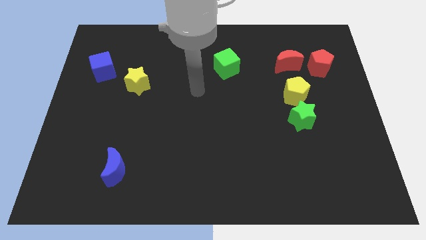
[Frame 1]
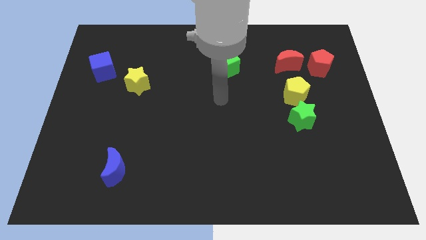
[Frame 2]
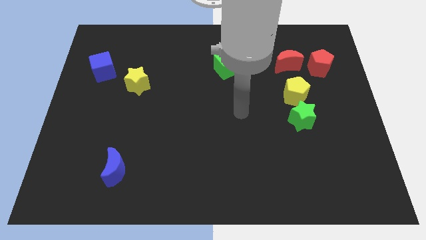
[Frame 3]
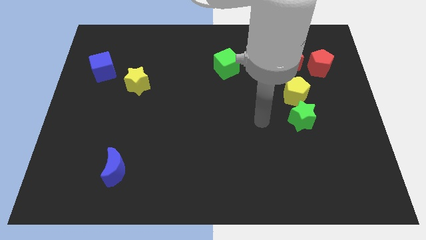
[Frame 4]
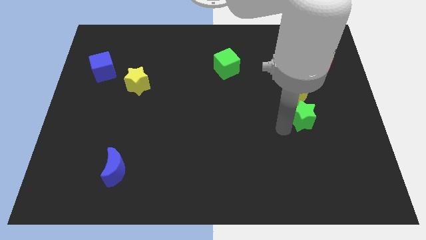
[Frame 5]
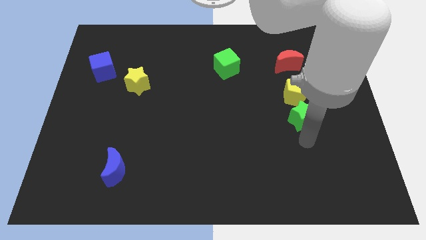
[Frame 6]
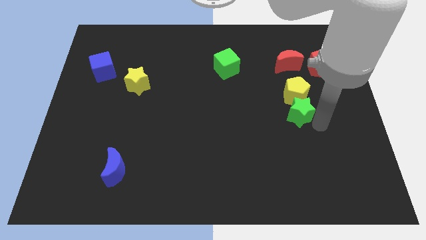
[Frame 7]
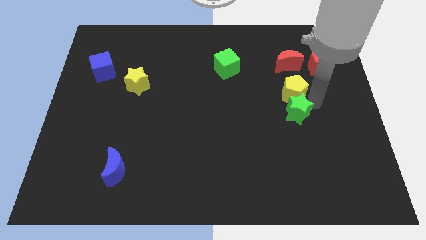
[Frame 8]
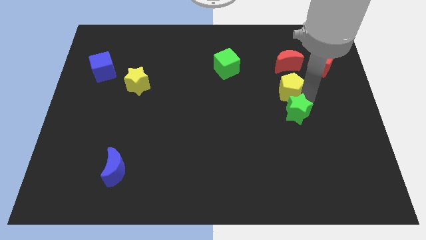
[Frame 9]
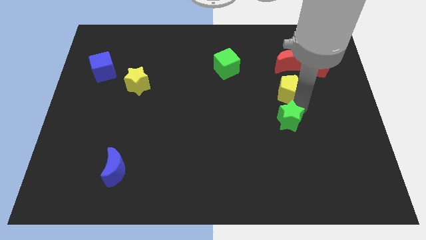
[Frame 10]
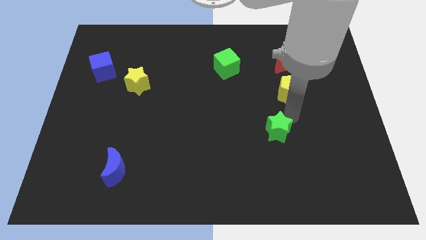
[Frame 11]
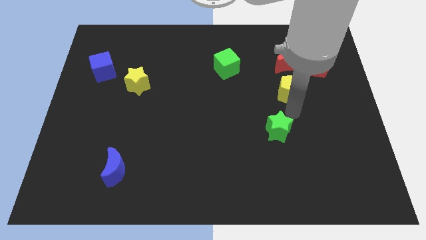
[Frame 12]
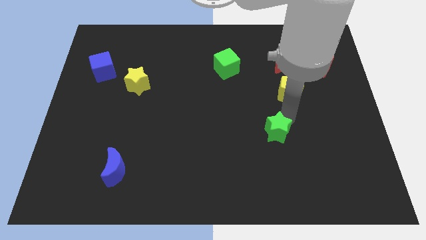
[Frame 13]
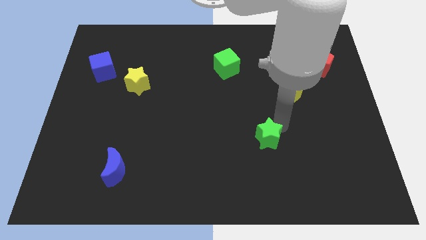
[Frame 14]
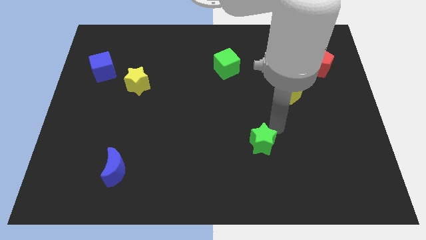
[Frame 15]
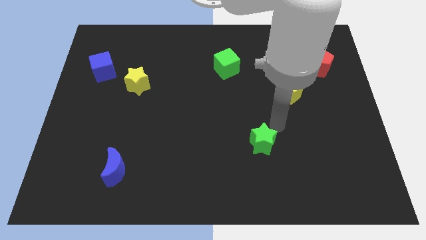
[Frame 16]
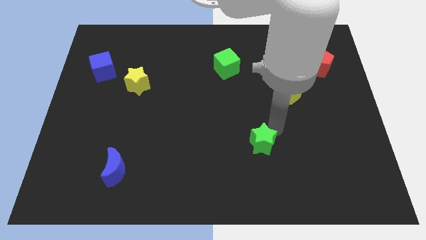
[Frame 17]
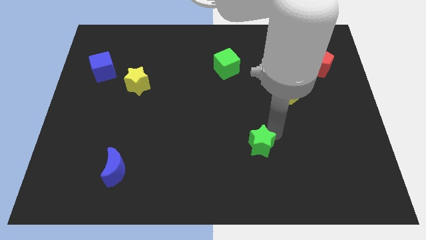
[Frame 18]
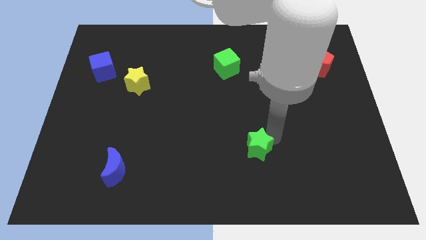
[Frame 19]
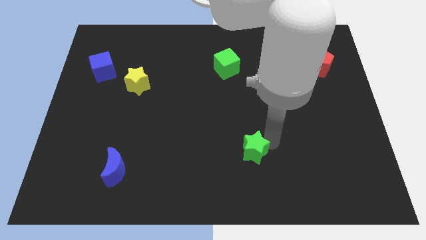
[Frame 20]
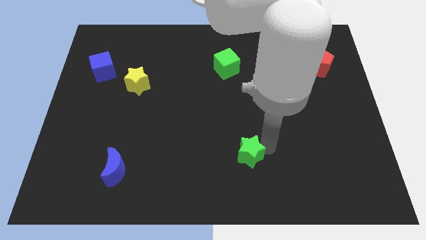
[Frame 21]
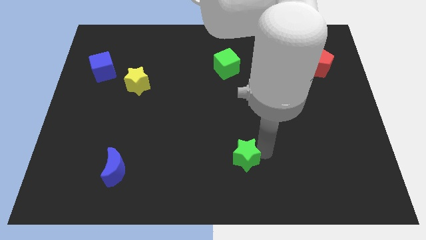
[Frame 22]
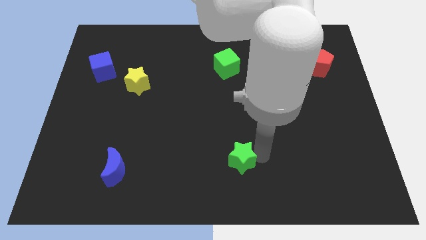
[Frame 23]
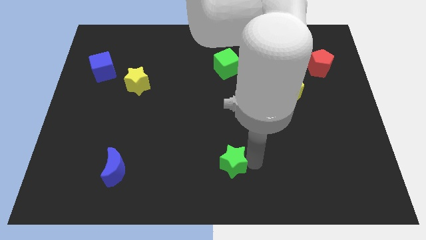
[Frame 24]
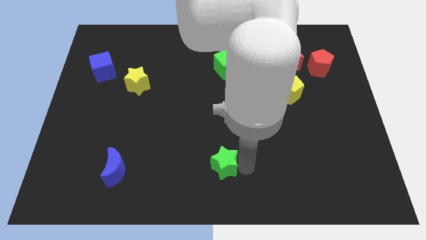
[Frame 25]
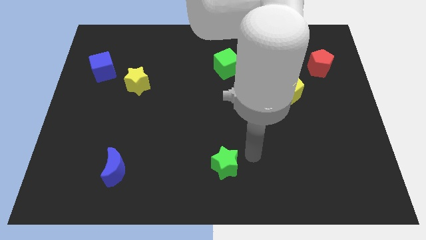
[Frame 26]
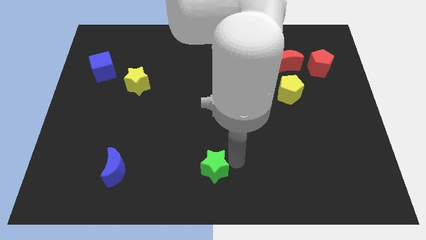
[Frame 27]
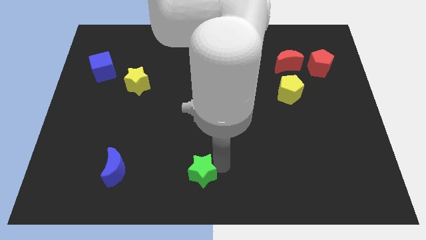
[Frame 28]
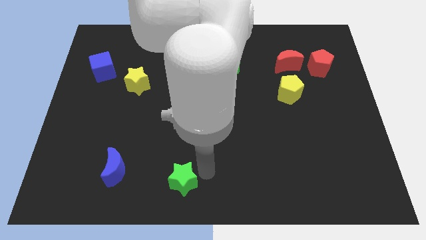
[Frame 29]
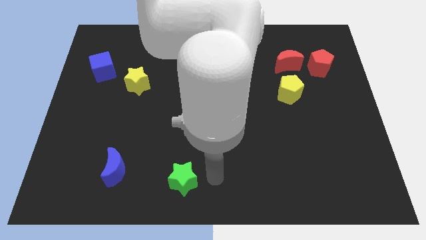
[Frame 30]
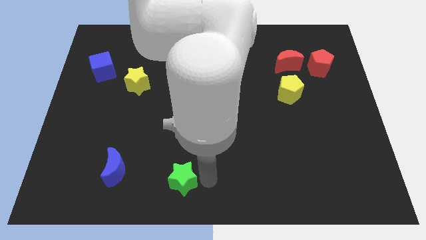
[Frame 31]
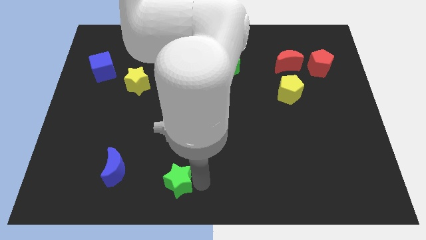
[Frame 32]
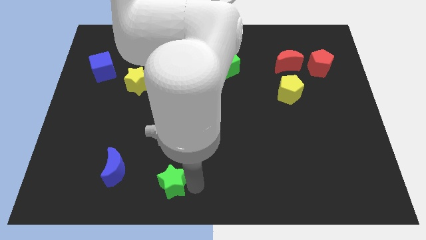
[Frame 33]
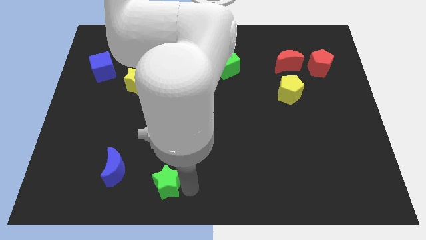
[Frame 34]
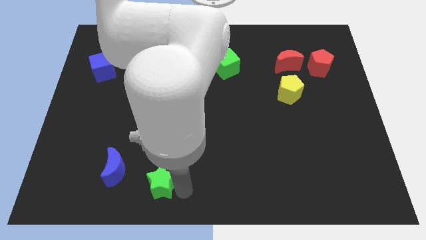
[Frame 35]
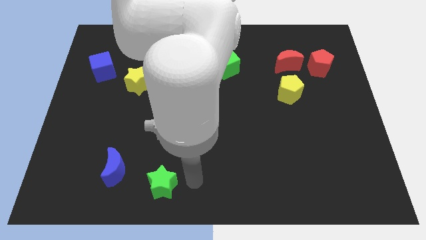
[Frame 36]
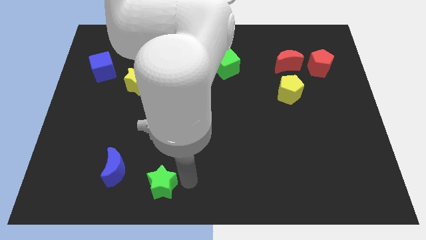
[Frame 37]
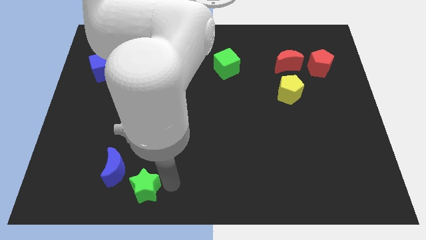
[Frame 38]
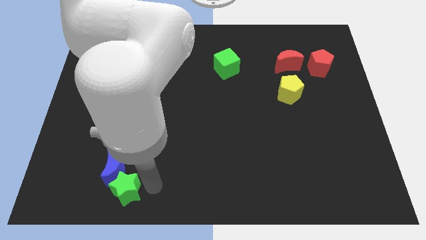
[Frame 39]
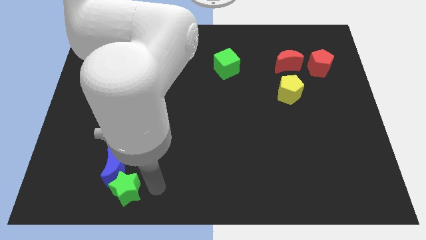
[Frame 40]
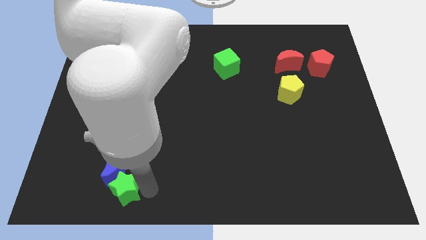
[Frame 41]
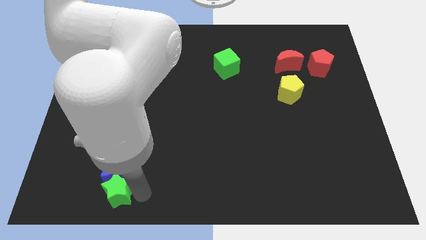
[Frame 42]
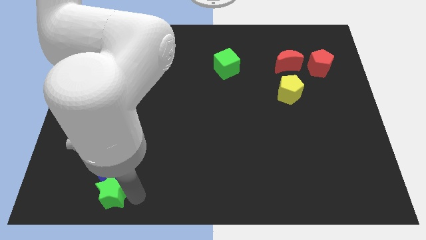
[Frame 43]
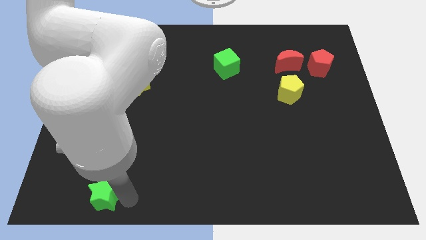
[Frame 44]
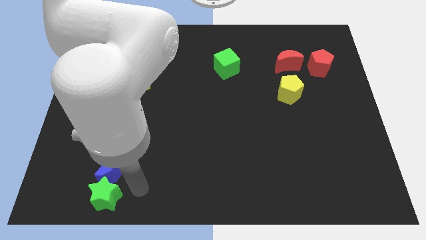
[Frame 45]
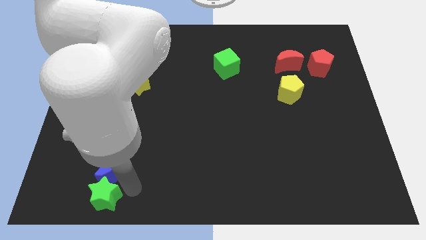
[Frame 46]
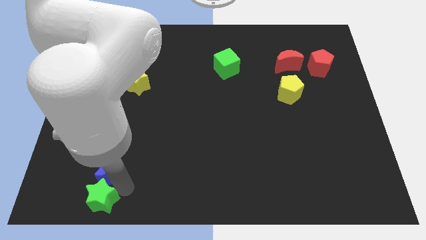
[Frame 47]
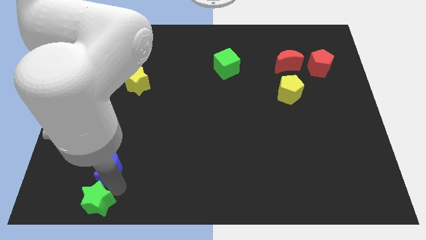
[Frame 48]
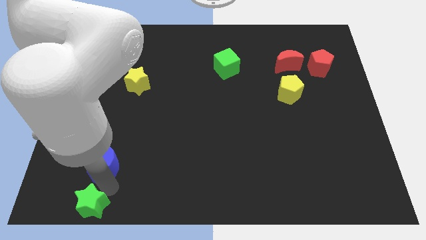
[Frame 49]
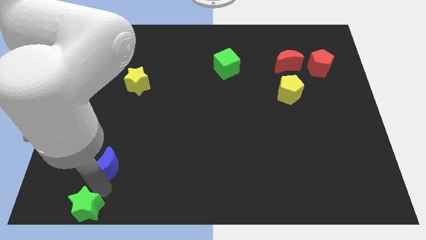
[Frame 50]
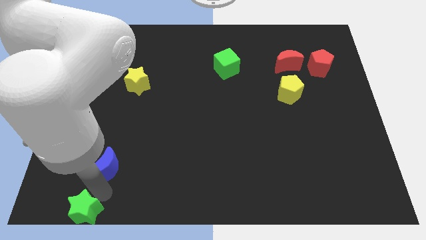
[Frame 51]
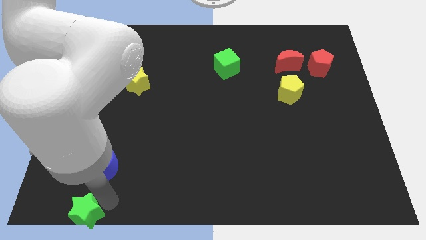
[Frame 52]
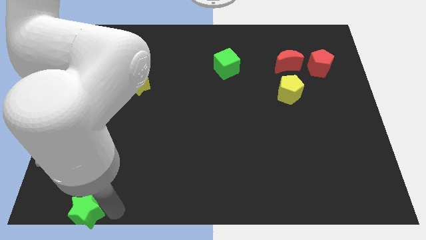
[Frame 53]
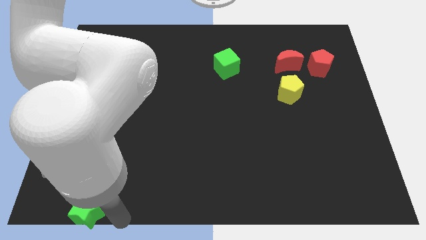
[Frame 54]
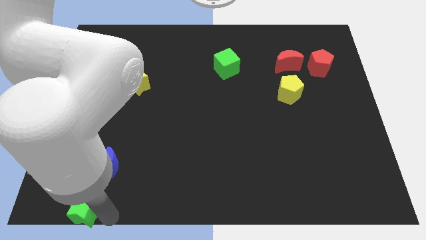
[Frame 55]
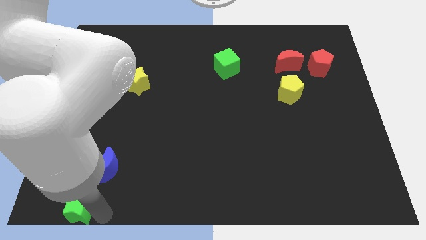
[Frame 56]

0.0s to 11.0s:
move the green star to the lower left corner

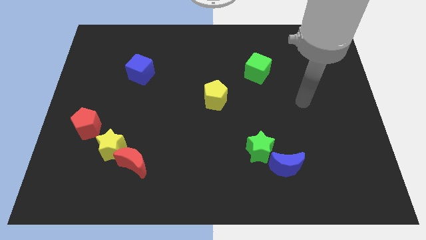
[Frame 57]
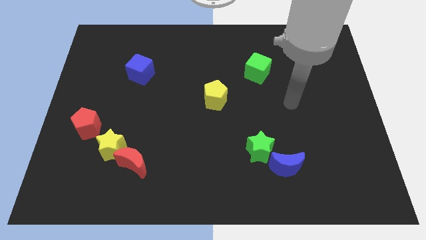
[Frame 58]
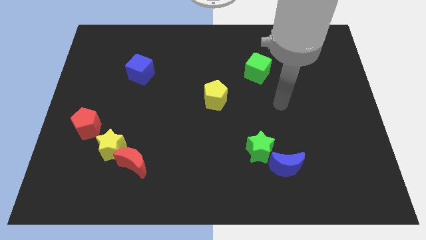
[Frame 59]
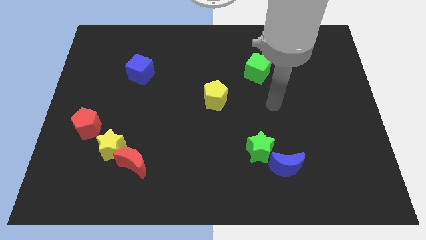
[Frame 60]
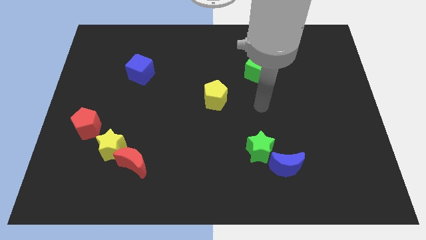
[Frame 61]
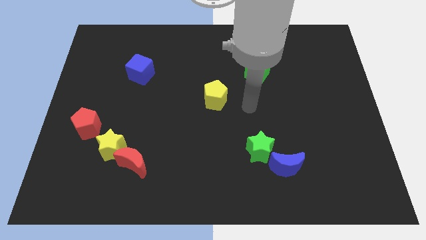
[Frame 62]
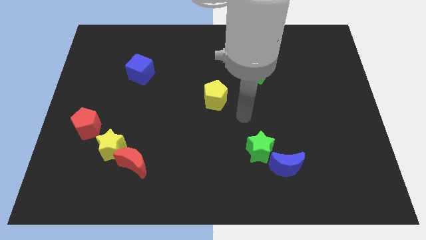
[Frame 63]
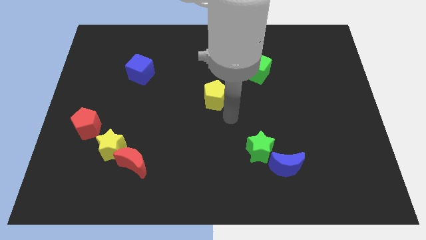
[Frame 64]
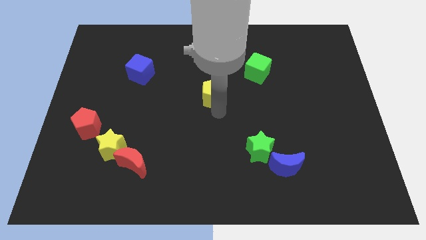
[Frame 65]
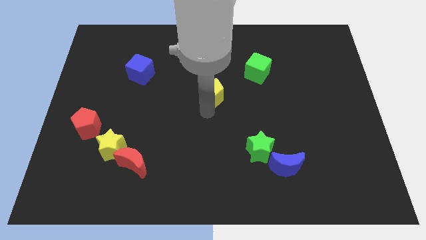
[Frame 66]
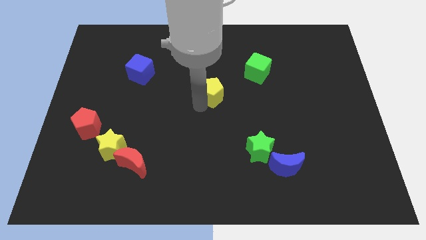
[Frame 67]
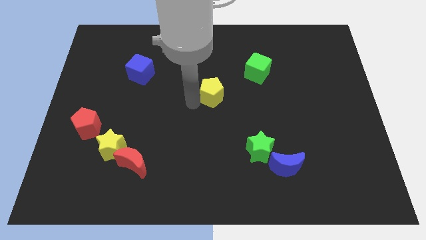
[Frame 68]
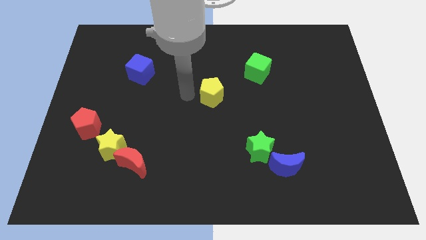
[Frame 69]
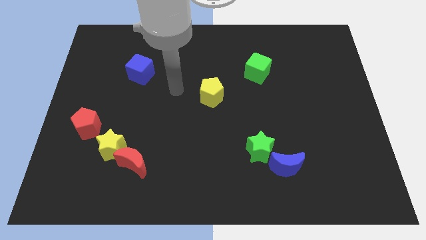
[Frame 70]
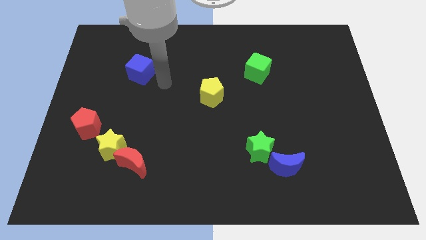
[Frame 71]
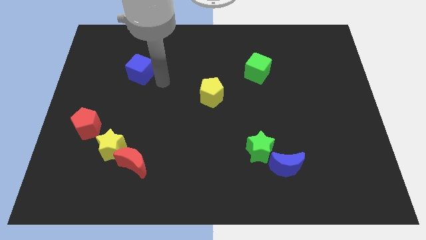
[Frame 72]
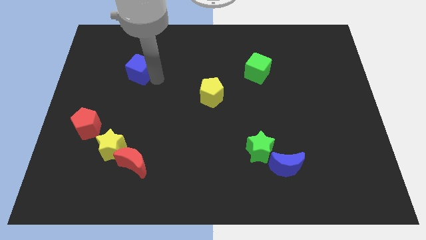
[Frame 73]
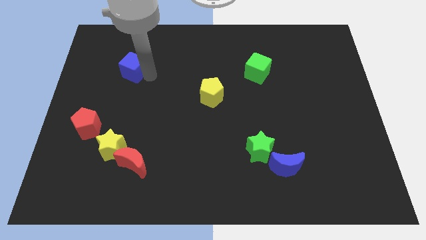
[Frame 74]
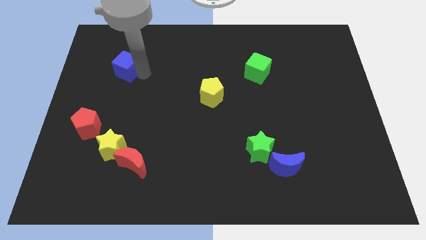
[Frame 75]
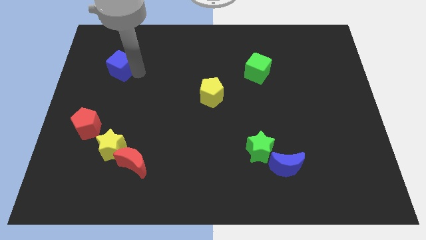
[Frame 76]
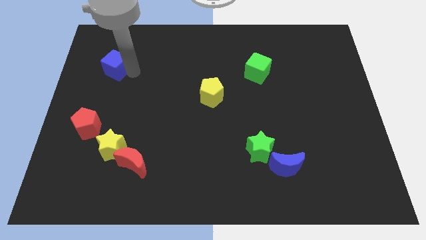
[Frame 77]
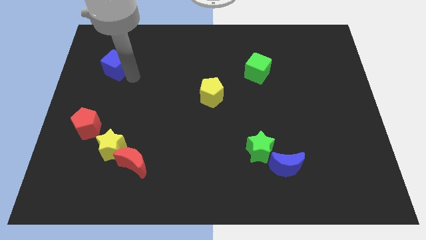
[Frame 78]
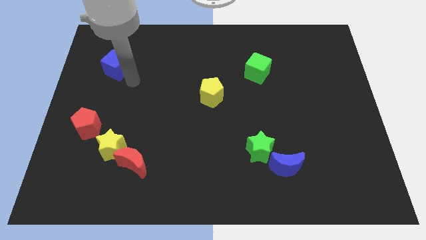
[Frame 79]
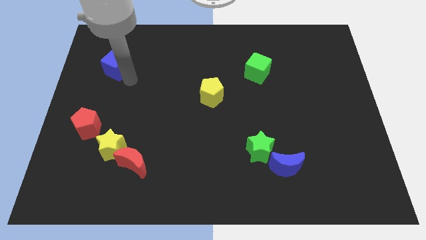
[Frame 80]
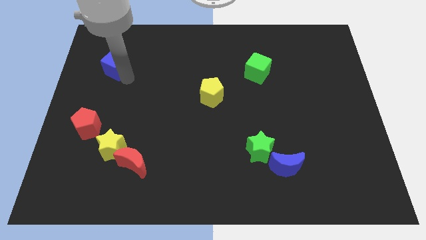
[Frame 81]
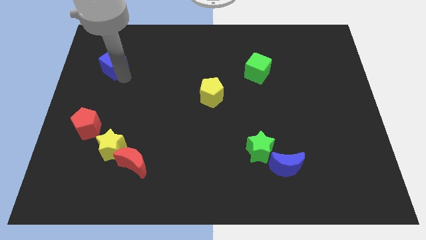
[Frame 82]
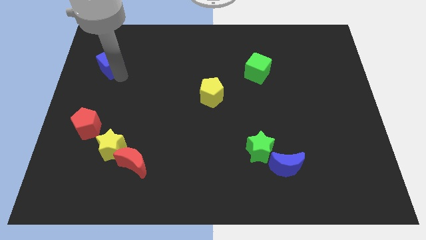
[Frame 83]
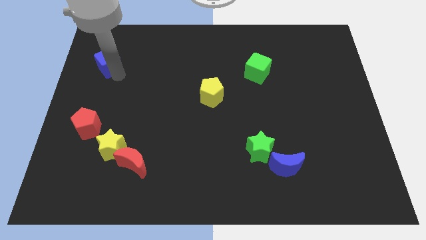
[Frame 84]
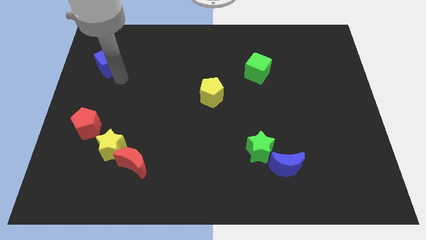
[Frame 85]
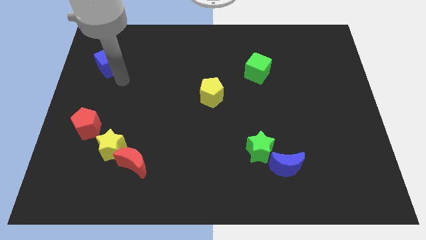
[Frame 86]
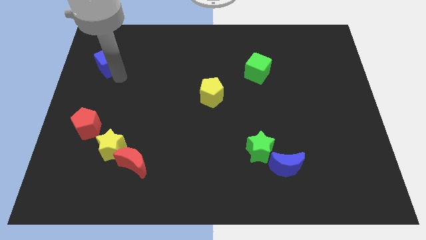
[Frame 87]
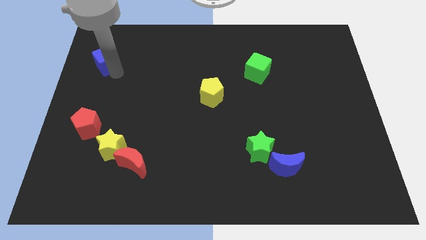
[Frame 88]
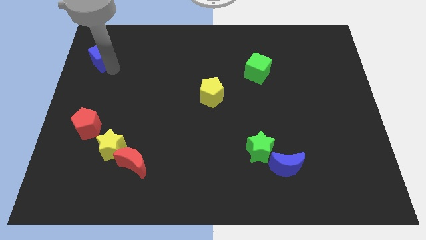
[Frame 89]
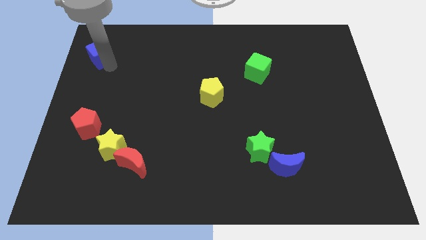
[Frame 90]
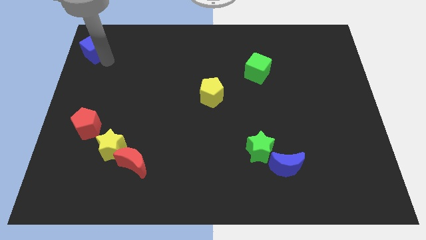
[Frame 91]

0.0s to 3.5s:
move the blue cube to the top left corner
